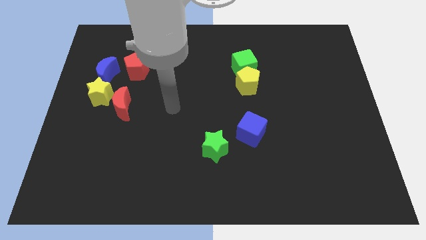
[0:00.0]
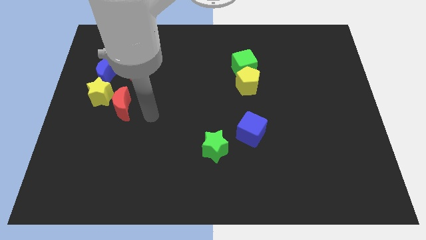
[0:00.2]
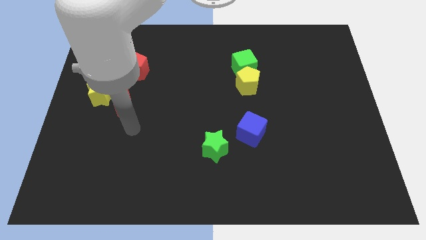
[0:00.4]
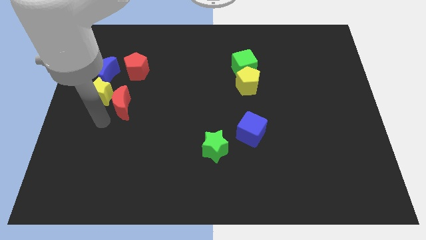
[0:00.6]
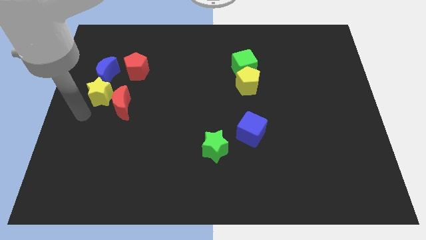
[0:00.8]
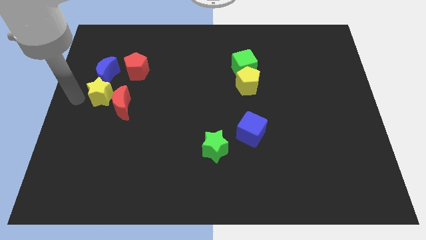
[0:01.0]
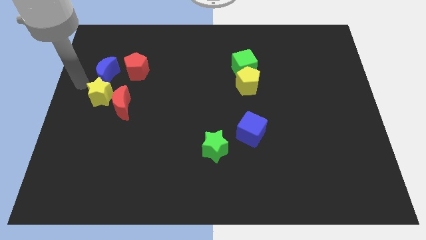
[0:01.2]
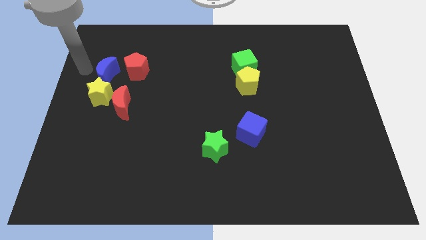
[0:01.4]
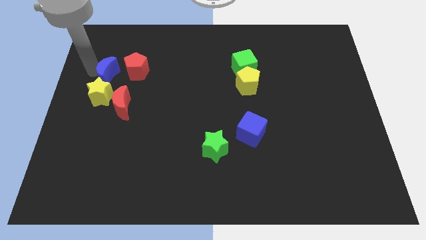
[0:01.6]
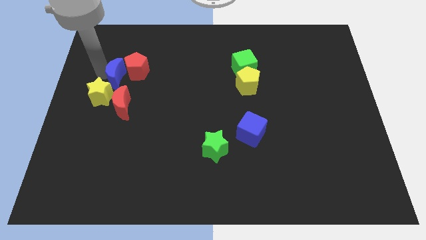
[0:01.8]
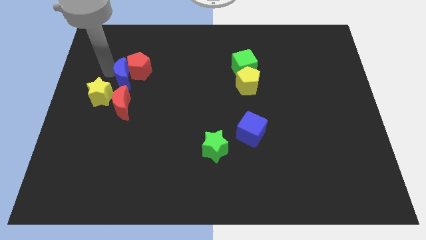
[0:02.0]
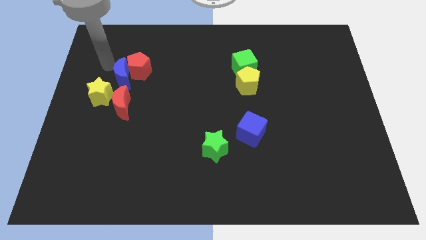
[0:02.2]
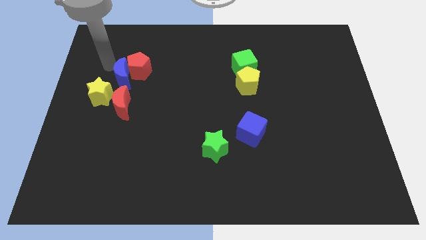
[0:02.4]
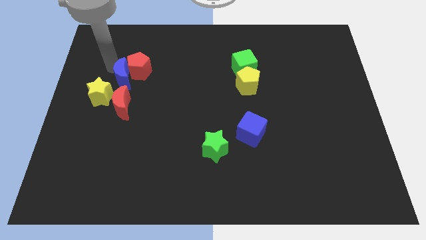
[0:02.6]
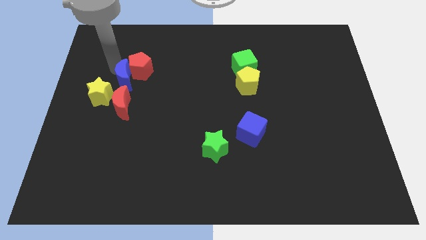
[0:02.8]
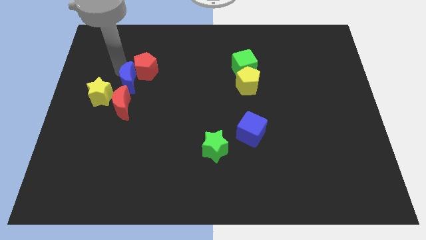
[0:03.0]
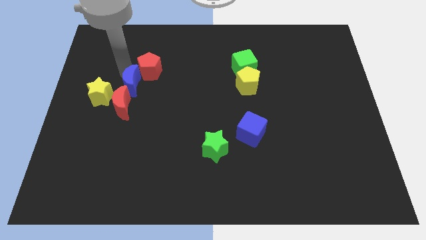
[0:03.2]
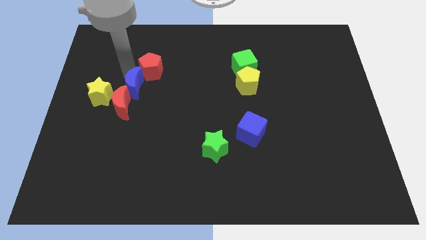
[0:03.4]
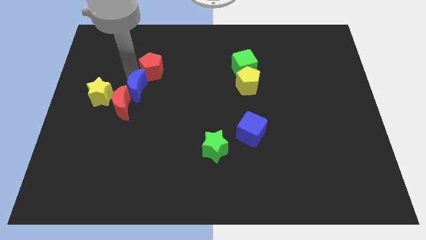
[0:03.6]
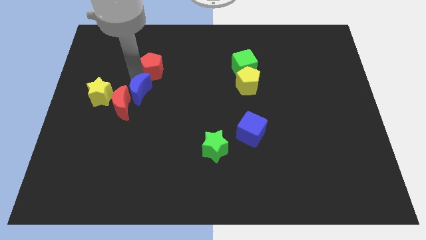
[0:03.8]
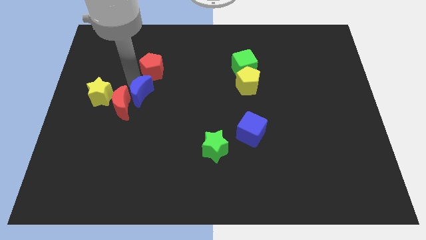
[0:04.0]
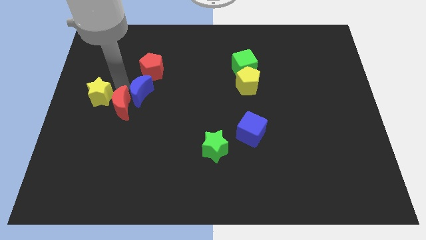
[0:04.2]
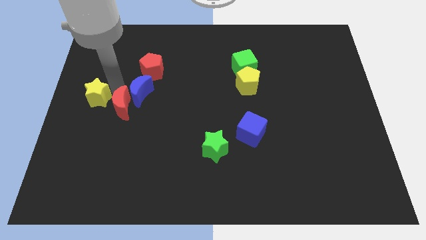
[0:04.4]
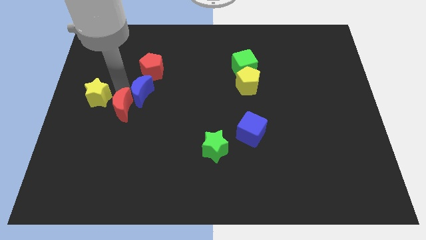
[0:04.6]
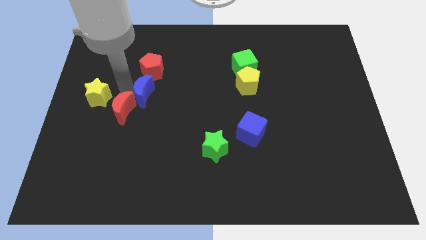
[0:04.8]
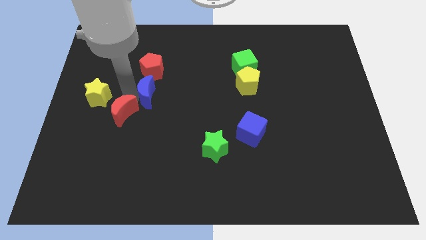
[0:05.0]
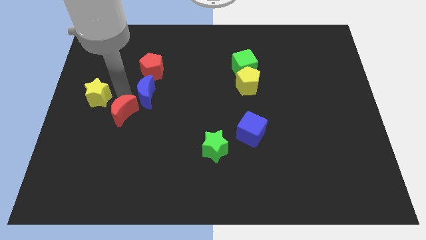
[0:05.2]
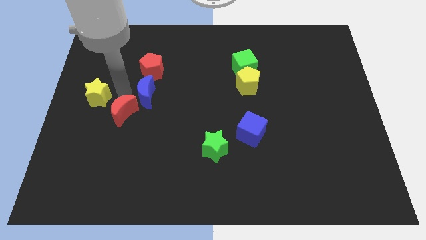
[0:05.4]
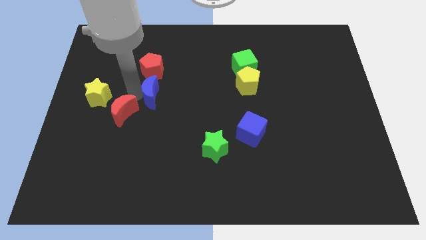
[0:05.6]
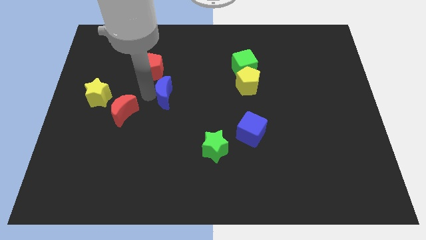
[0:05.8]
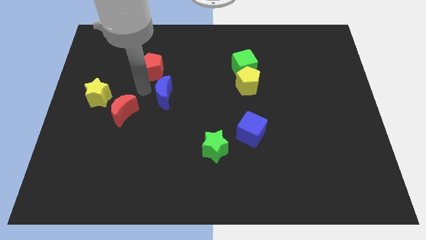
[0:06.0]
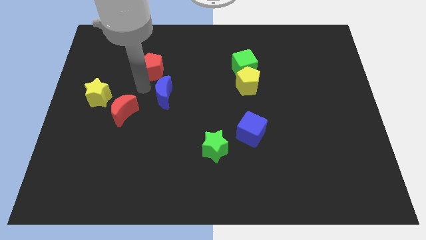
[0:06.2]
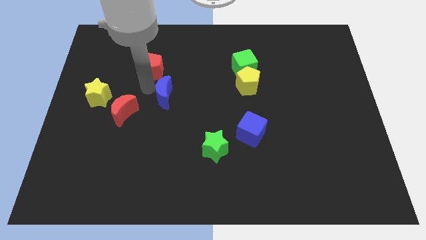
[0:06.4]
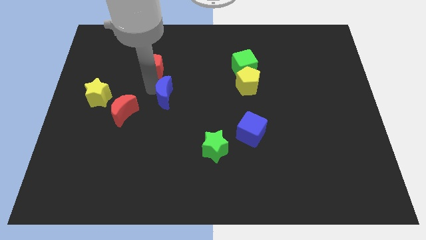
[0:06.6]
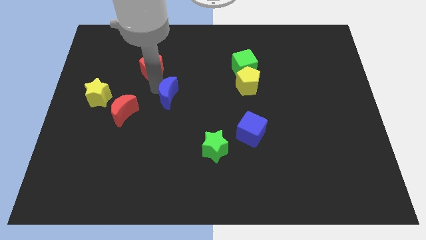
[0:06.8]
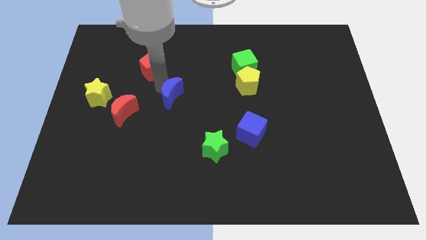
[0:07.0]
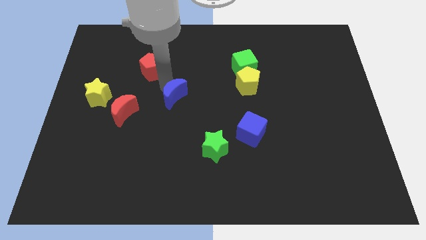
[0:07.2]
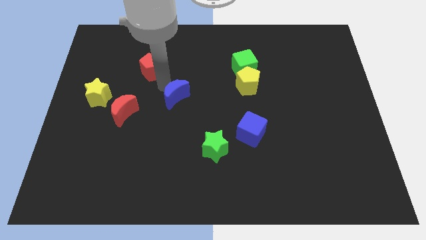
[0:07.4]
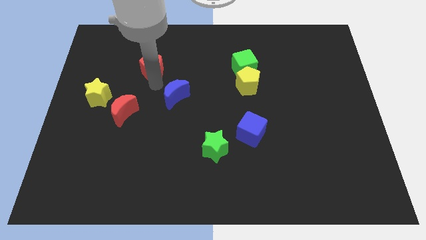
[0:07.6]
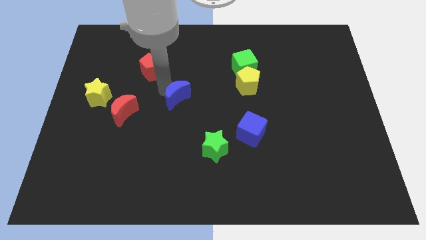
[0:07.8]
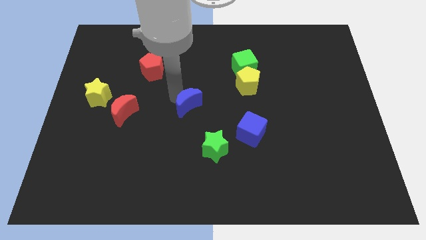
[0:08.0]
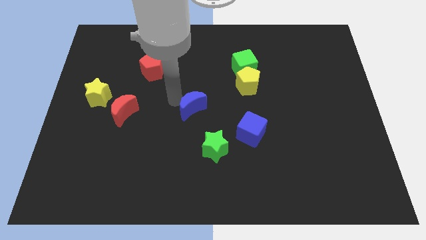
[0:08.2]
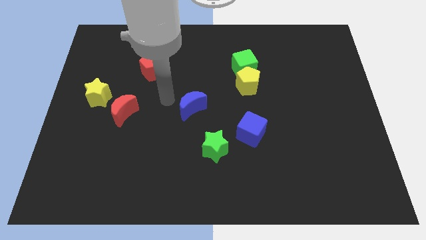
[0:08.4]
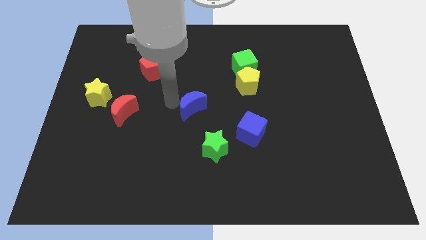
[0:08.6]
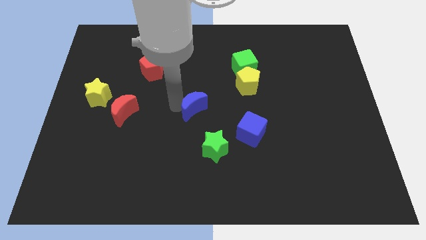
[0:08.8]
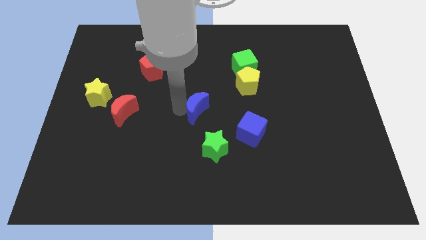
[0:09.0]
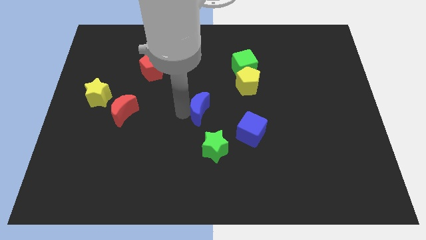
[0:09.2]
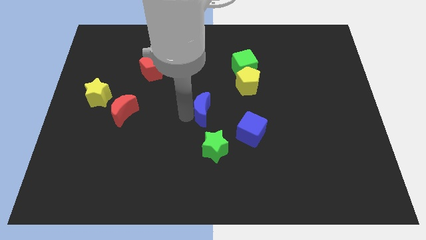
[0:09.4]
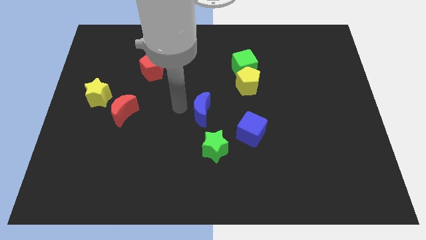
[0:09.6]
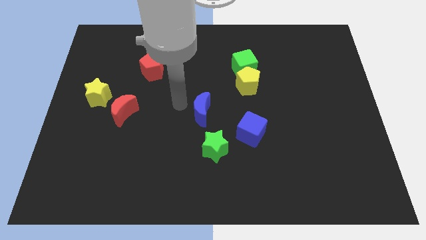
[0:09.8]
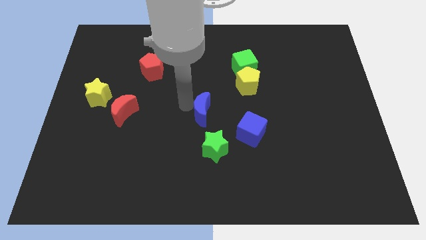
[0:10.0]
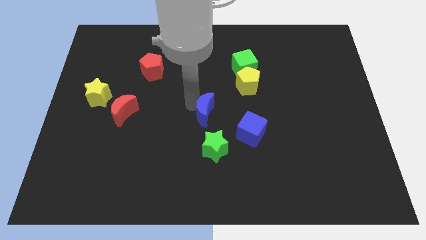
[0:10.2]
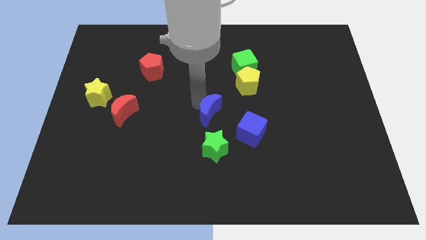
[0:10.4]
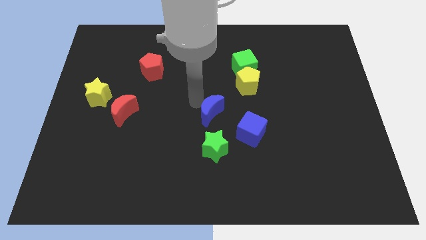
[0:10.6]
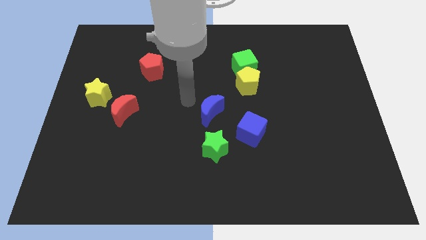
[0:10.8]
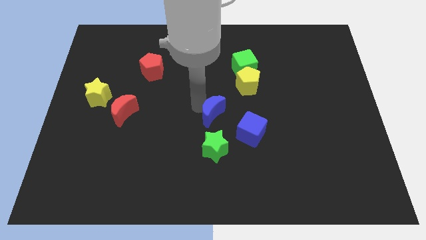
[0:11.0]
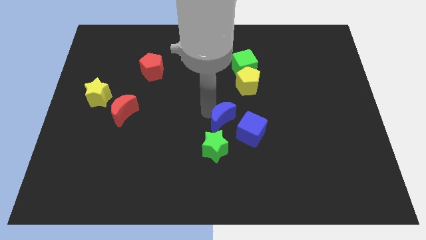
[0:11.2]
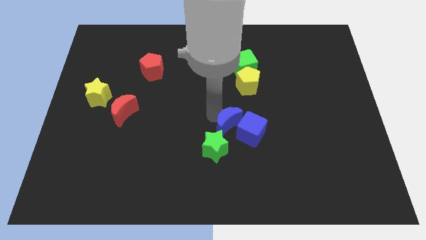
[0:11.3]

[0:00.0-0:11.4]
push the blue moon towards the blue cube

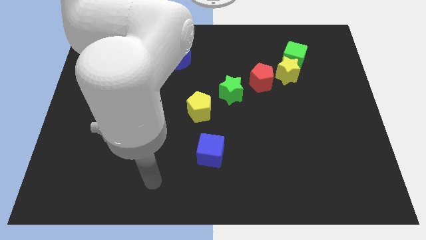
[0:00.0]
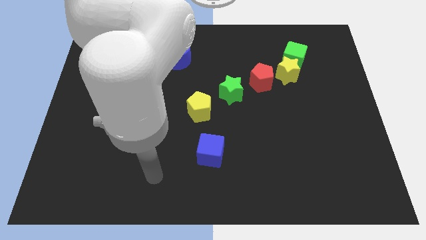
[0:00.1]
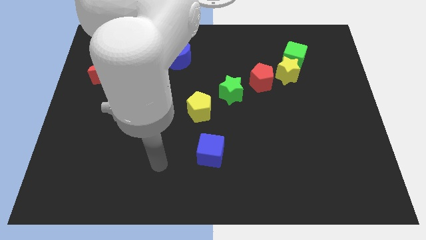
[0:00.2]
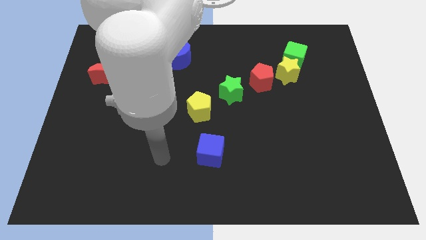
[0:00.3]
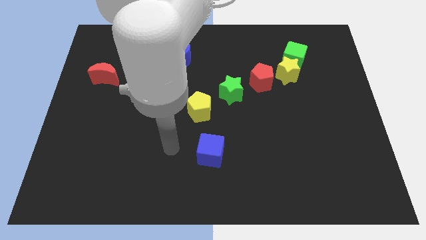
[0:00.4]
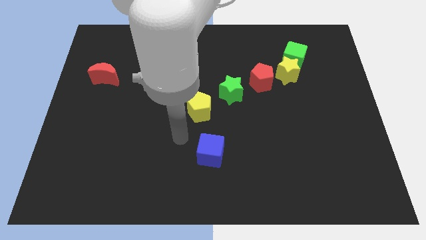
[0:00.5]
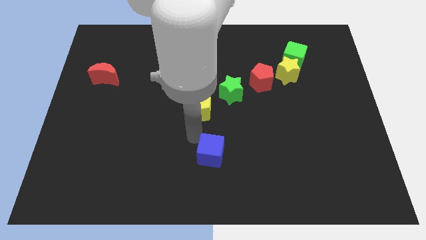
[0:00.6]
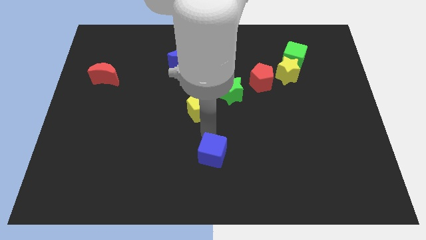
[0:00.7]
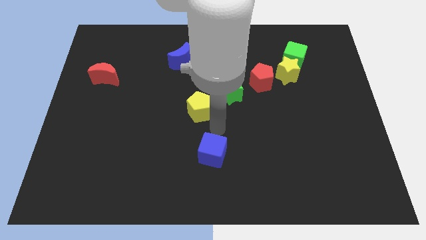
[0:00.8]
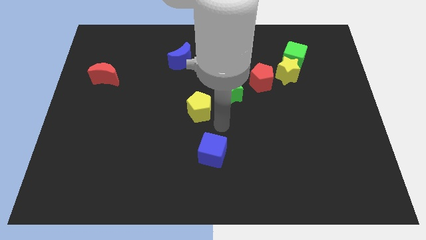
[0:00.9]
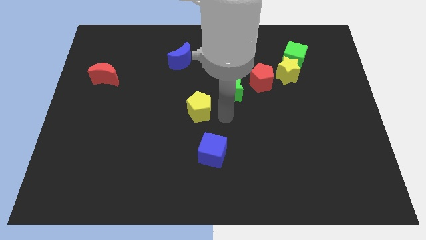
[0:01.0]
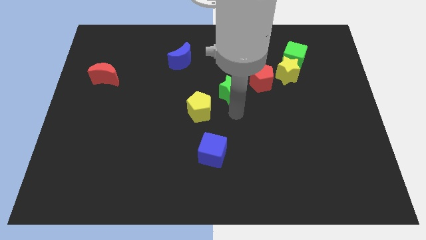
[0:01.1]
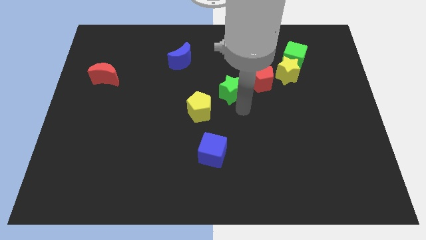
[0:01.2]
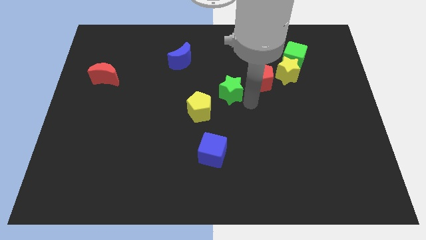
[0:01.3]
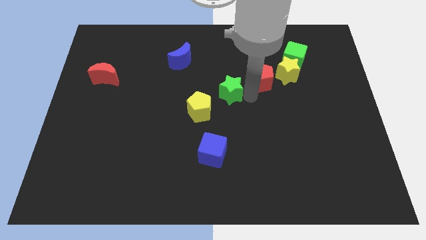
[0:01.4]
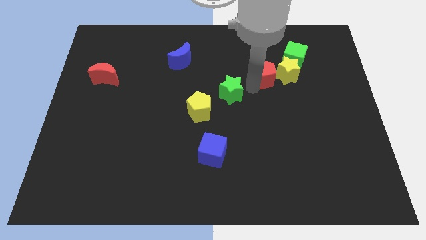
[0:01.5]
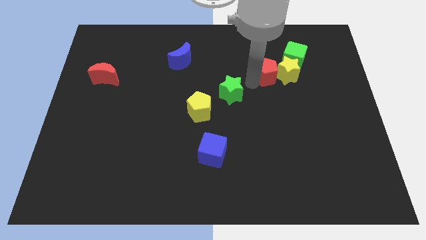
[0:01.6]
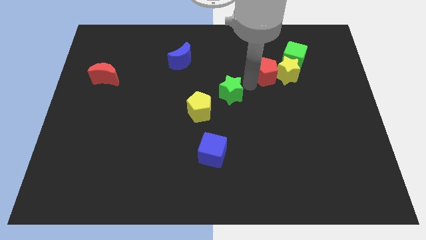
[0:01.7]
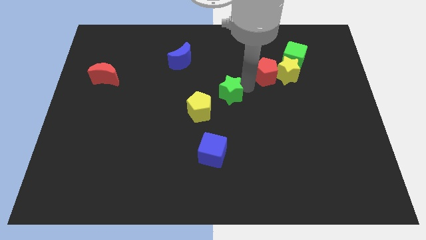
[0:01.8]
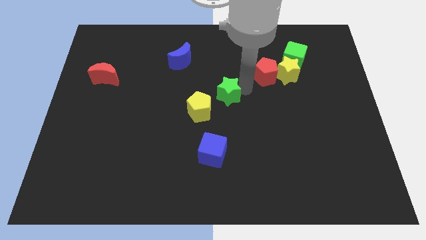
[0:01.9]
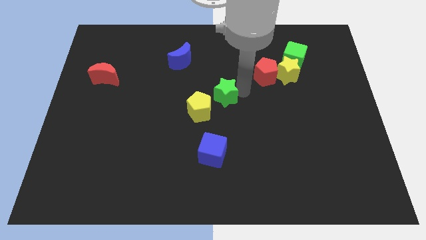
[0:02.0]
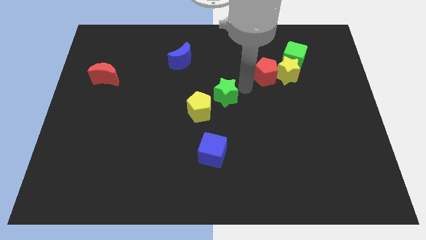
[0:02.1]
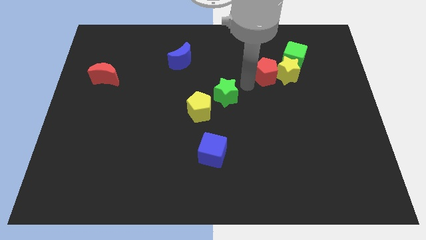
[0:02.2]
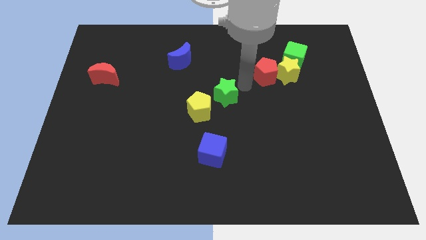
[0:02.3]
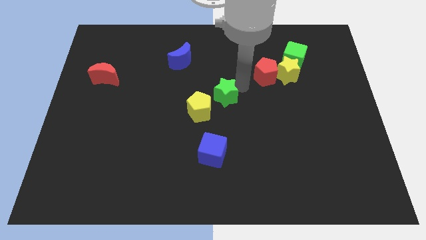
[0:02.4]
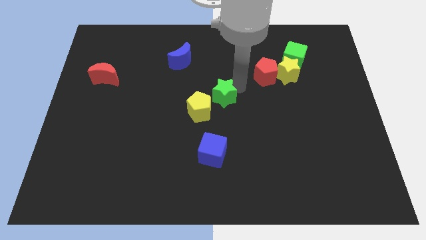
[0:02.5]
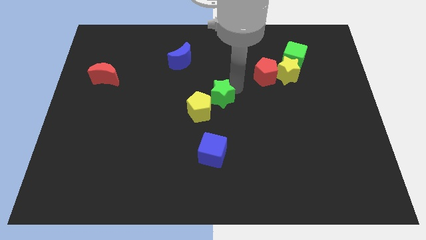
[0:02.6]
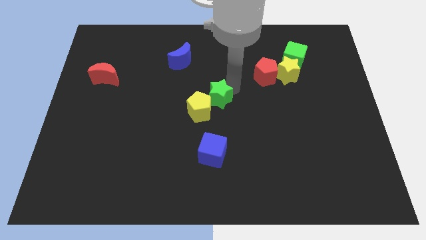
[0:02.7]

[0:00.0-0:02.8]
slide the green star to the yellow pentagon

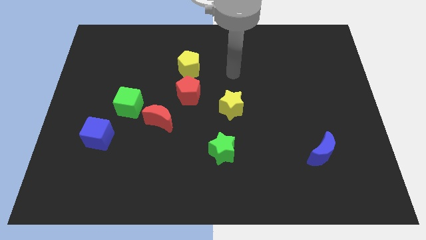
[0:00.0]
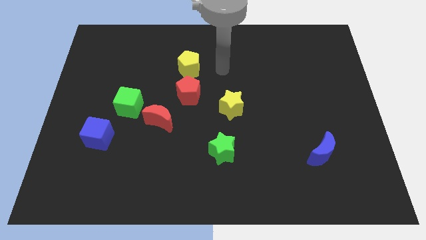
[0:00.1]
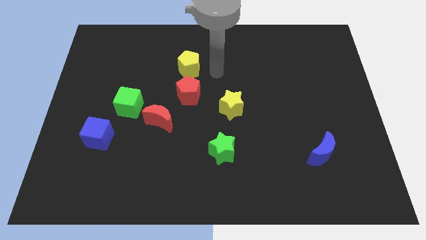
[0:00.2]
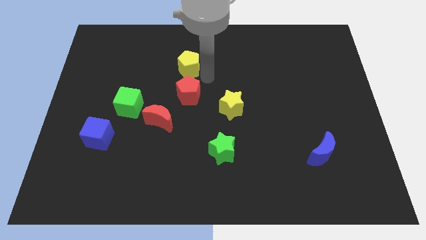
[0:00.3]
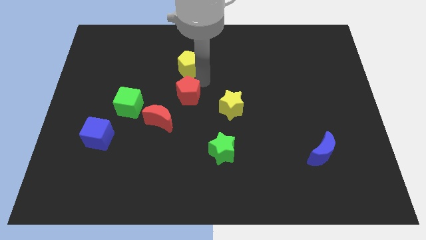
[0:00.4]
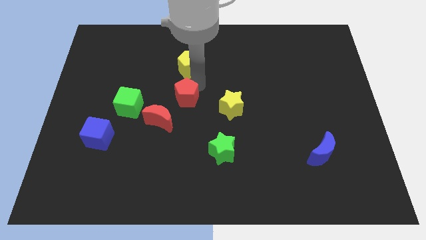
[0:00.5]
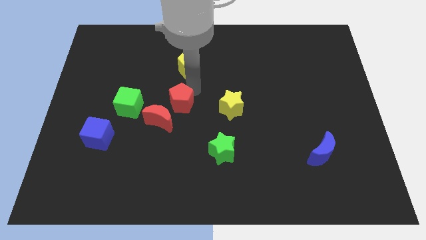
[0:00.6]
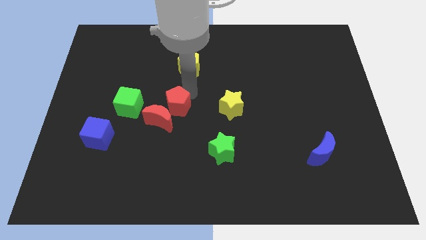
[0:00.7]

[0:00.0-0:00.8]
move the red pentagon to the red moon
